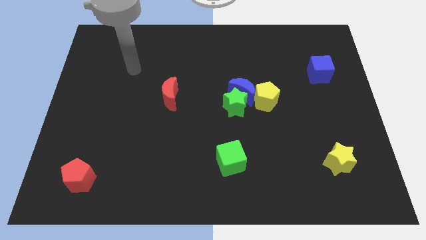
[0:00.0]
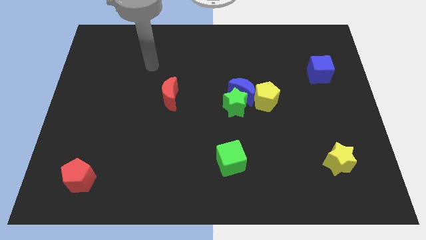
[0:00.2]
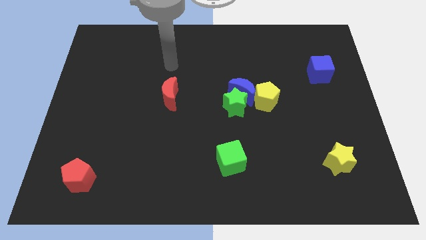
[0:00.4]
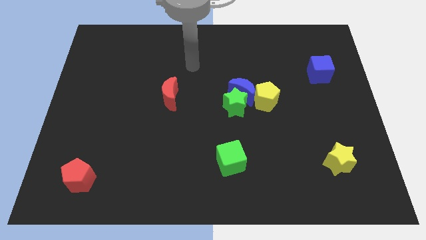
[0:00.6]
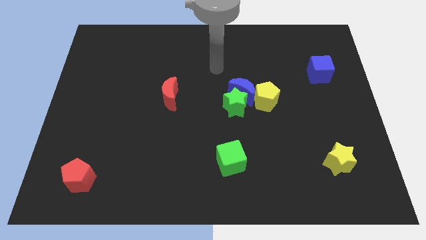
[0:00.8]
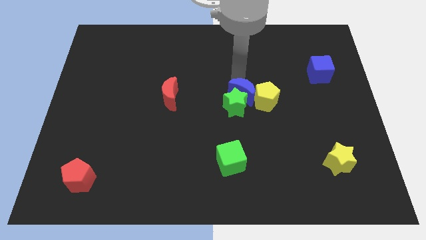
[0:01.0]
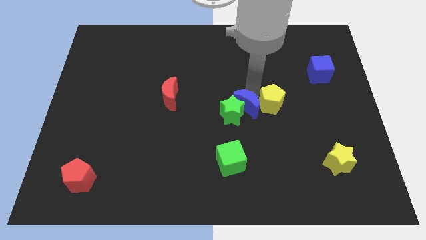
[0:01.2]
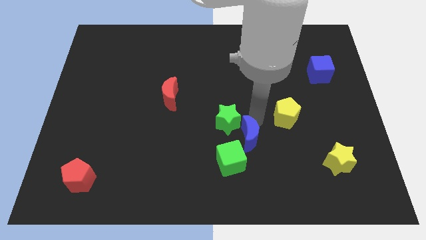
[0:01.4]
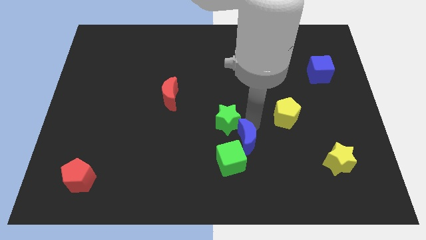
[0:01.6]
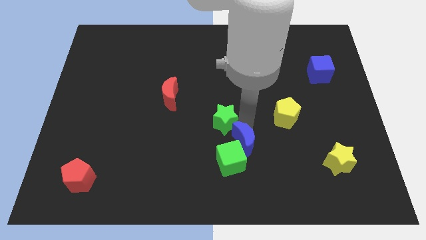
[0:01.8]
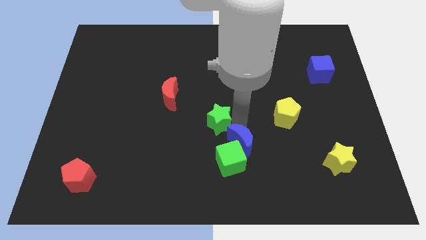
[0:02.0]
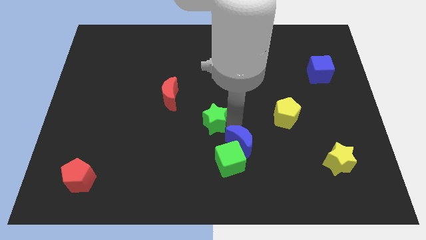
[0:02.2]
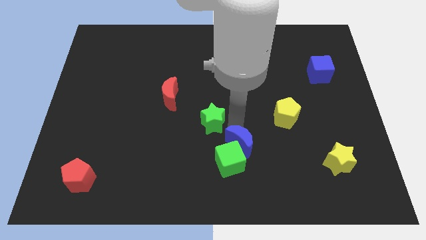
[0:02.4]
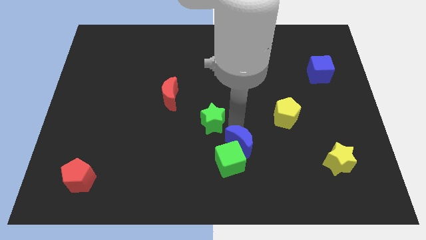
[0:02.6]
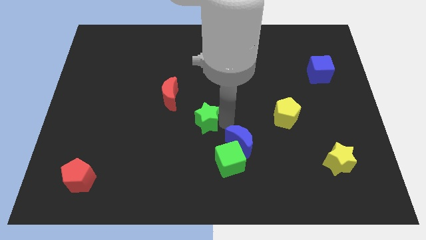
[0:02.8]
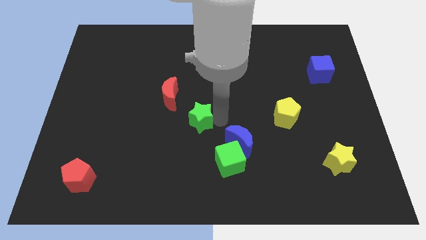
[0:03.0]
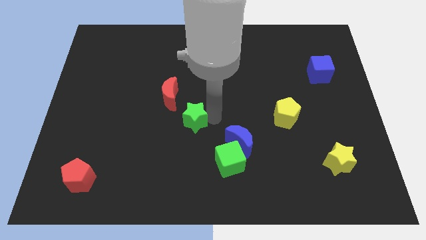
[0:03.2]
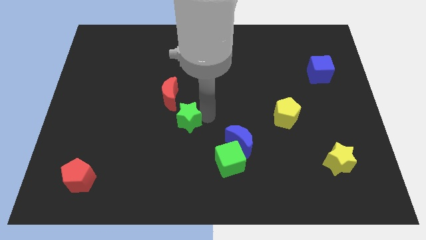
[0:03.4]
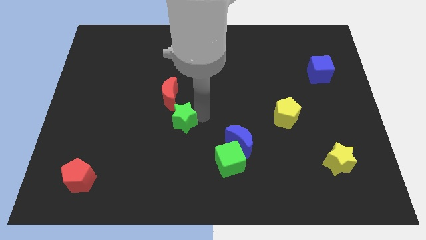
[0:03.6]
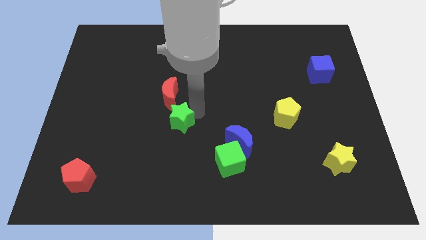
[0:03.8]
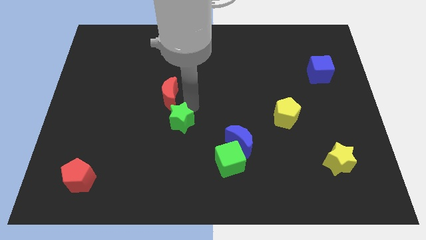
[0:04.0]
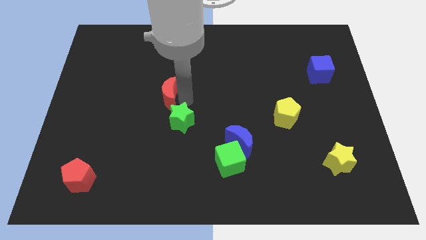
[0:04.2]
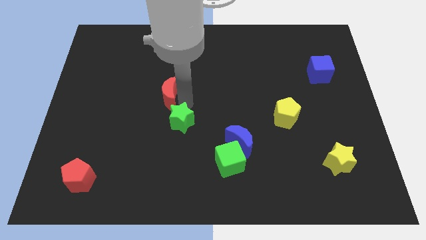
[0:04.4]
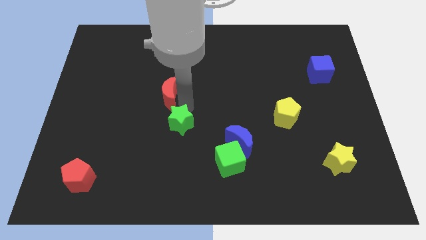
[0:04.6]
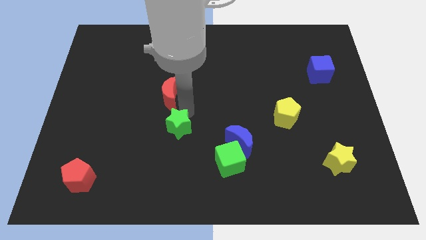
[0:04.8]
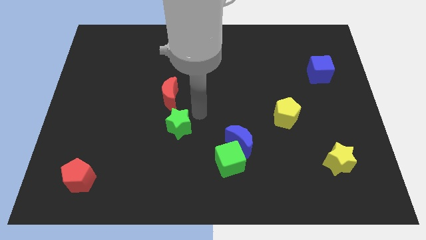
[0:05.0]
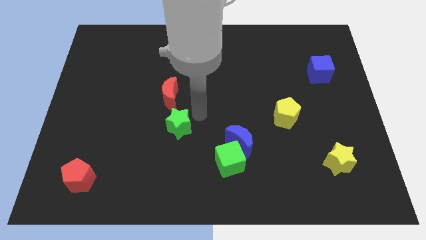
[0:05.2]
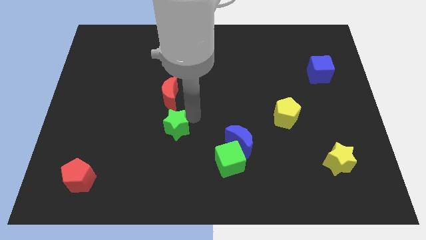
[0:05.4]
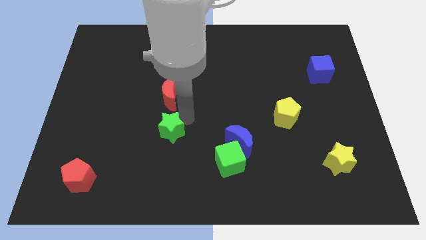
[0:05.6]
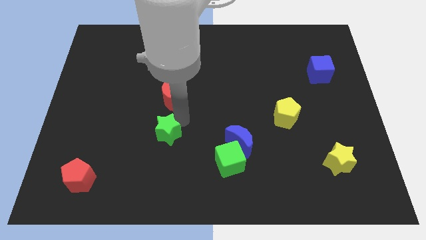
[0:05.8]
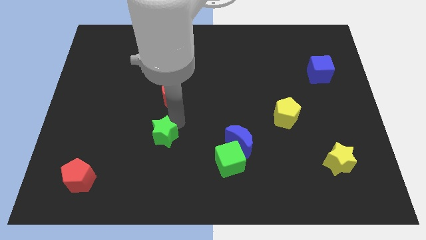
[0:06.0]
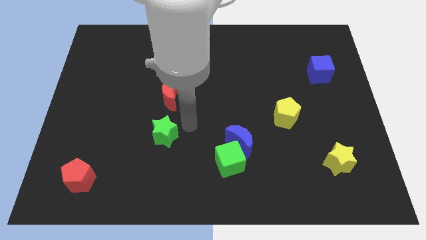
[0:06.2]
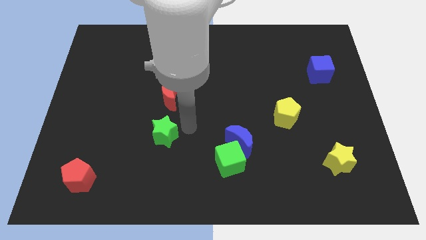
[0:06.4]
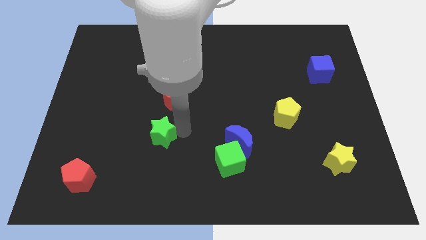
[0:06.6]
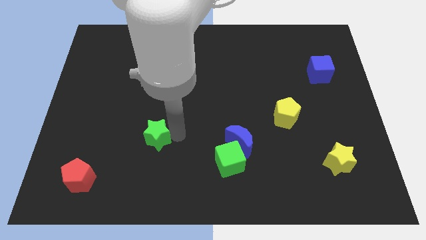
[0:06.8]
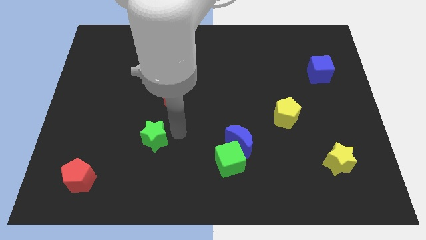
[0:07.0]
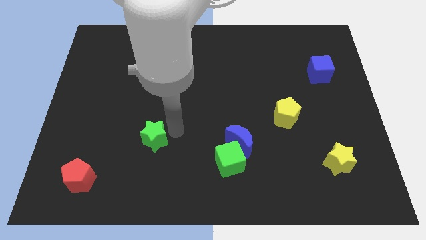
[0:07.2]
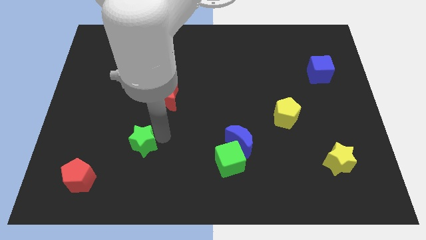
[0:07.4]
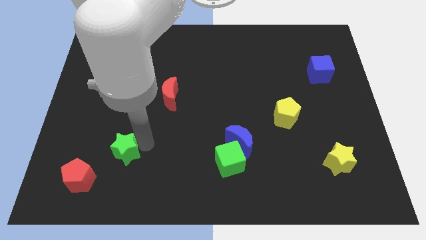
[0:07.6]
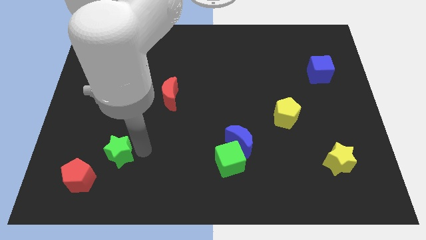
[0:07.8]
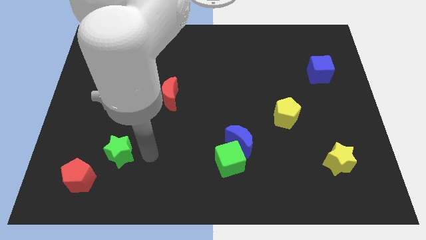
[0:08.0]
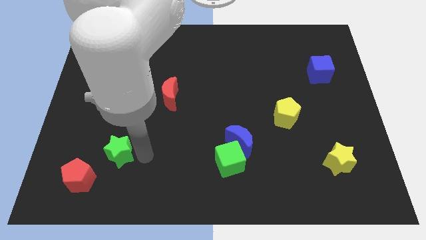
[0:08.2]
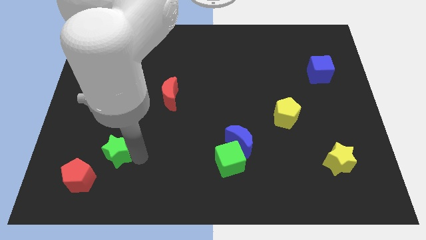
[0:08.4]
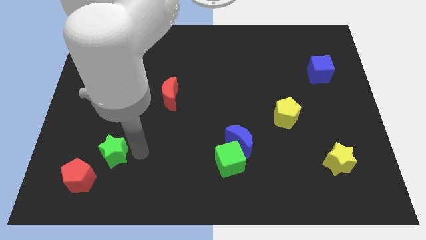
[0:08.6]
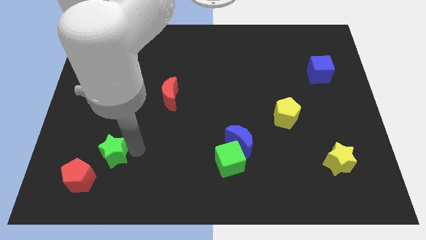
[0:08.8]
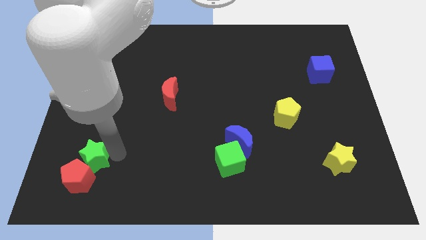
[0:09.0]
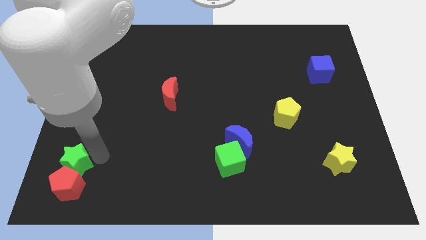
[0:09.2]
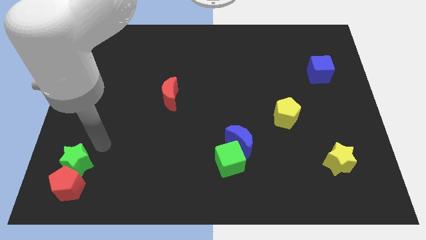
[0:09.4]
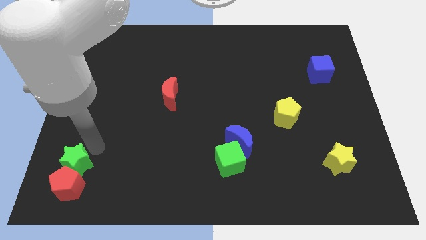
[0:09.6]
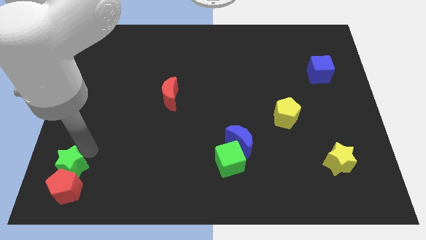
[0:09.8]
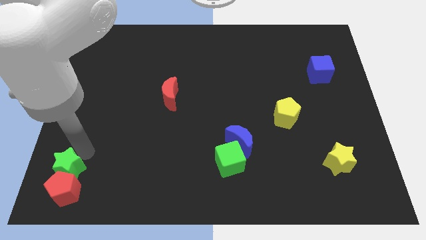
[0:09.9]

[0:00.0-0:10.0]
move the green star to the lower left corner

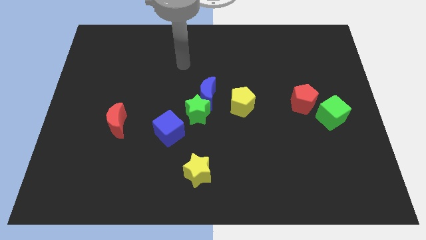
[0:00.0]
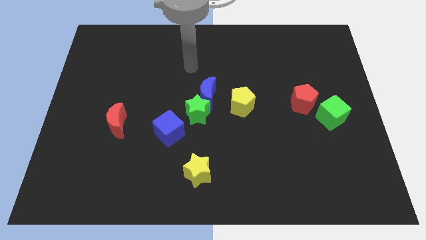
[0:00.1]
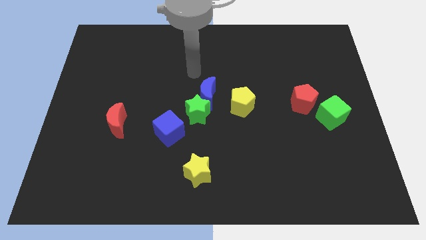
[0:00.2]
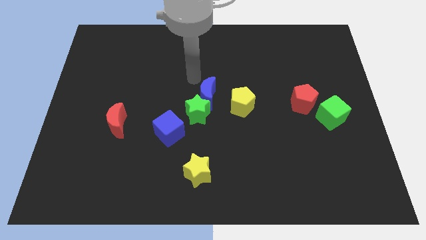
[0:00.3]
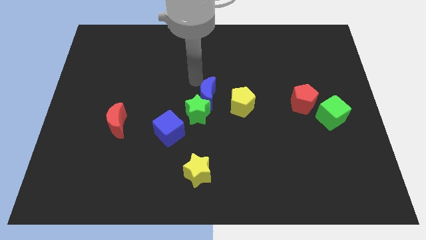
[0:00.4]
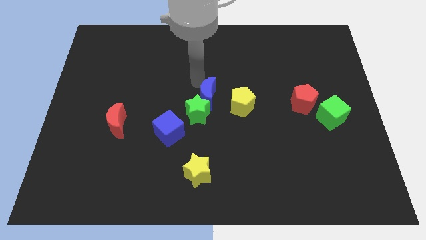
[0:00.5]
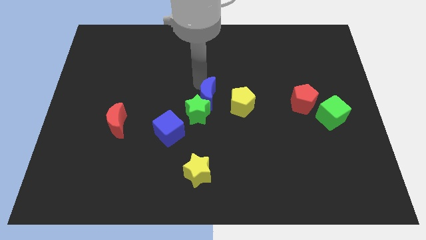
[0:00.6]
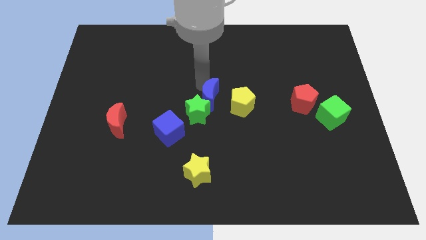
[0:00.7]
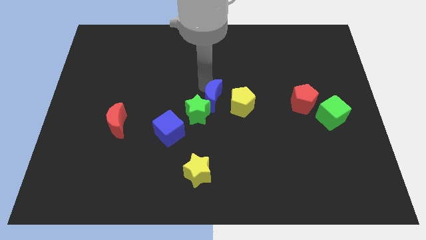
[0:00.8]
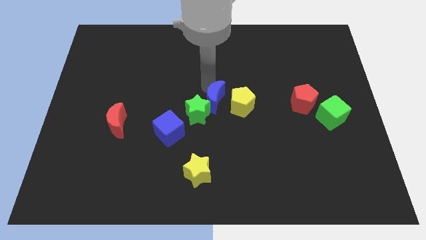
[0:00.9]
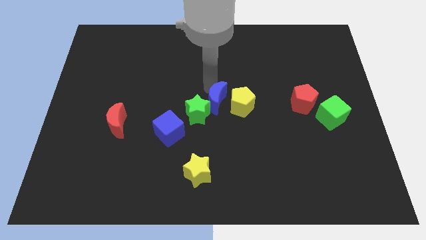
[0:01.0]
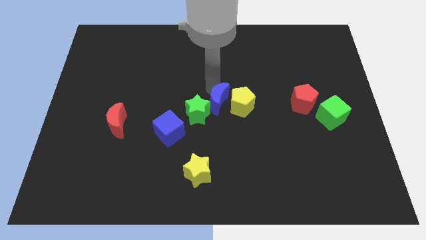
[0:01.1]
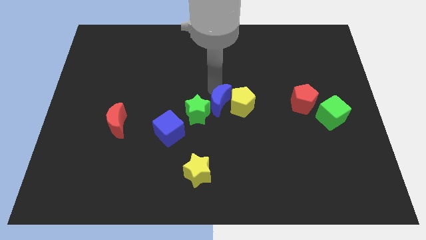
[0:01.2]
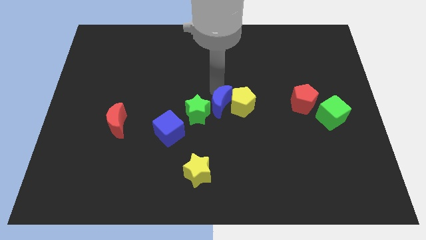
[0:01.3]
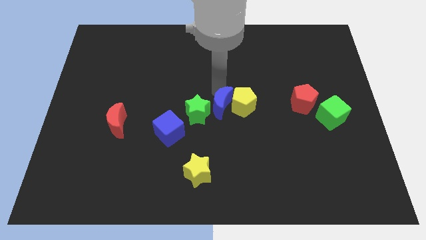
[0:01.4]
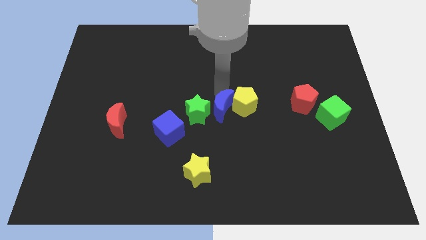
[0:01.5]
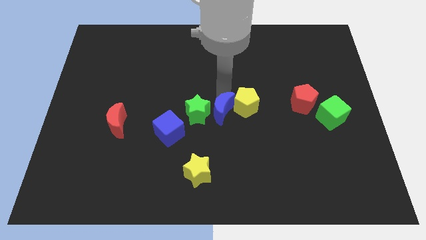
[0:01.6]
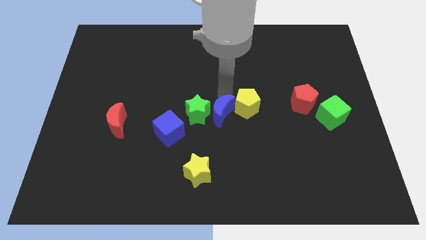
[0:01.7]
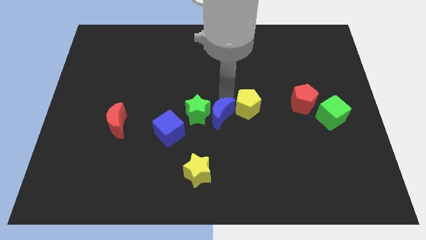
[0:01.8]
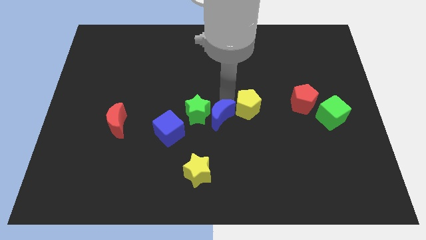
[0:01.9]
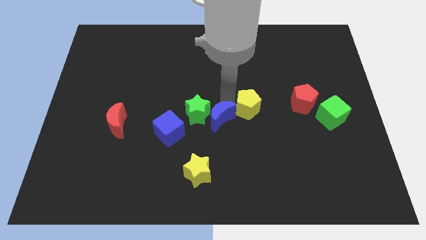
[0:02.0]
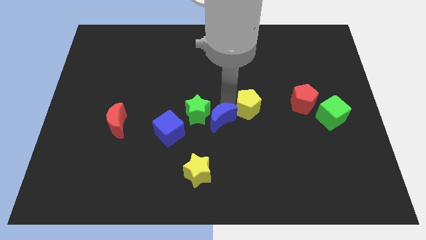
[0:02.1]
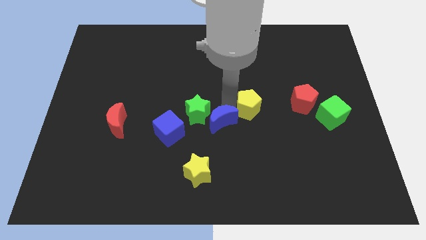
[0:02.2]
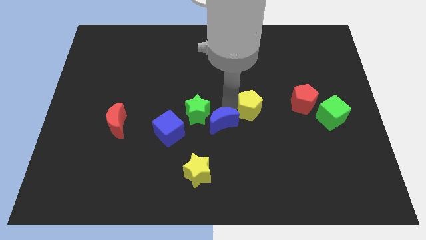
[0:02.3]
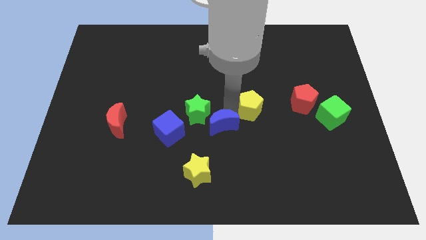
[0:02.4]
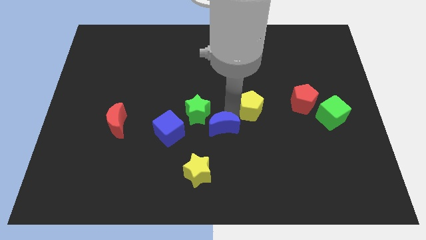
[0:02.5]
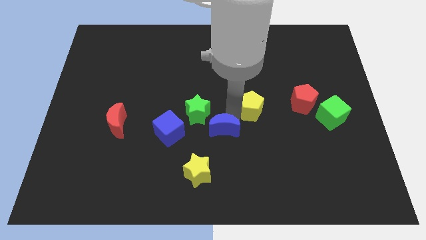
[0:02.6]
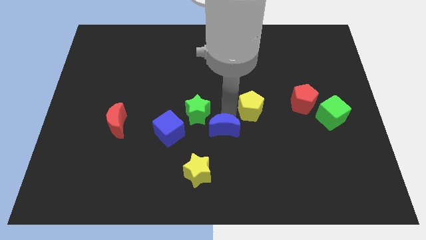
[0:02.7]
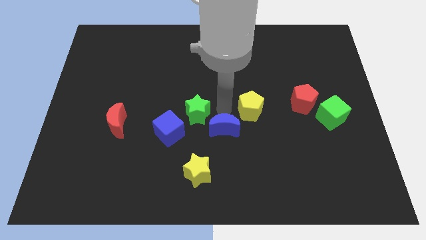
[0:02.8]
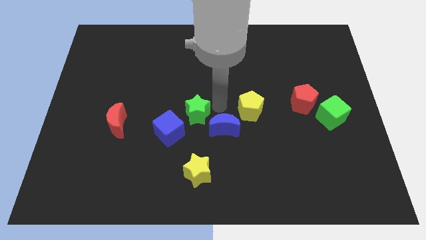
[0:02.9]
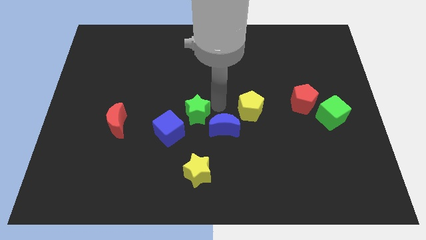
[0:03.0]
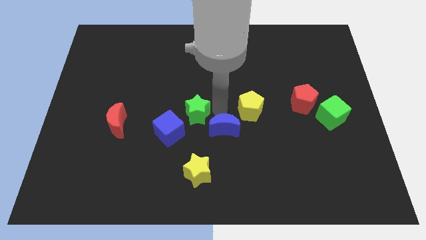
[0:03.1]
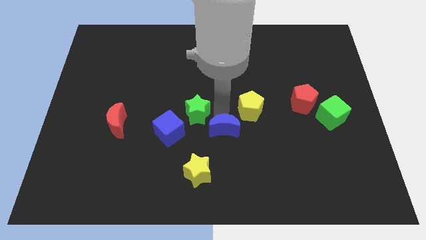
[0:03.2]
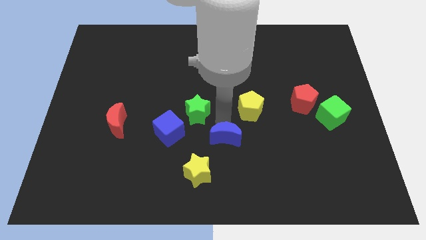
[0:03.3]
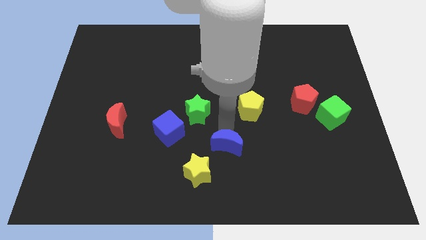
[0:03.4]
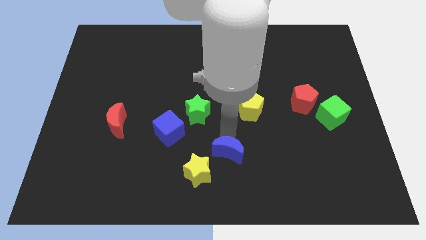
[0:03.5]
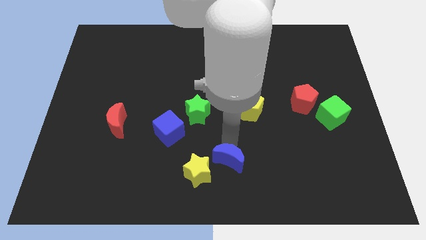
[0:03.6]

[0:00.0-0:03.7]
move the blue moon to the bottom side
